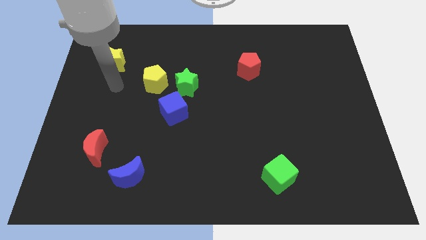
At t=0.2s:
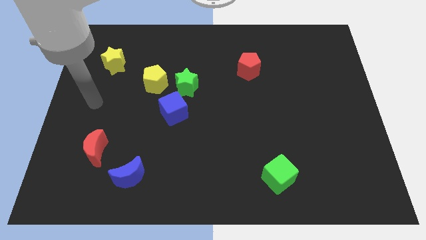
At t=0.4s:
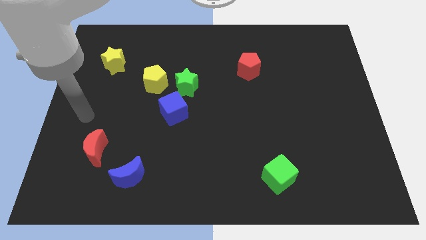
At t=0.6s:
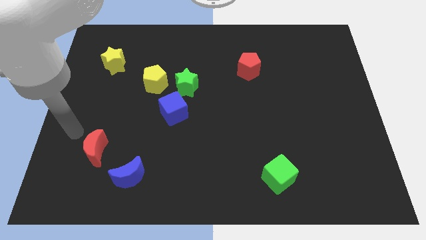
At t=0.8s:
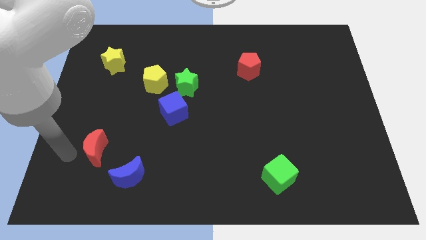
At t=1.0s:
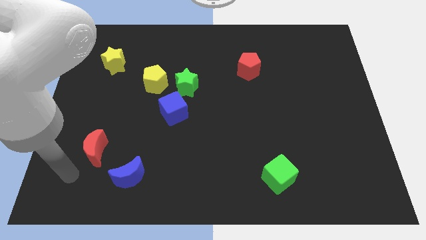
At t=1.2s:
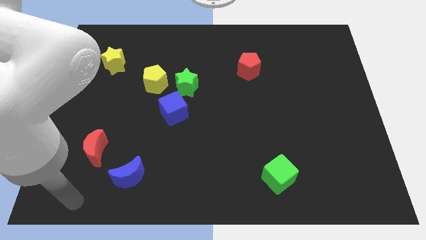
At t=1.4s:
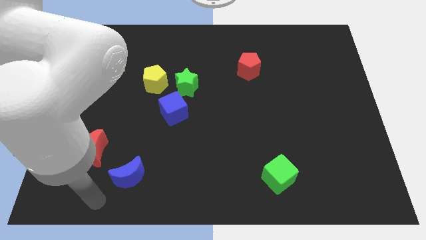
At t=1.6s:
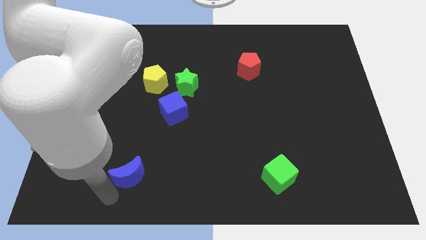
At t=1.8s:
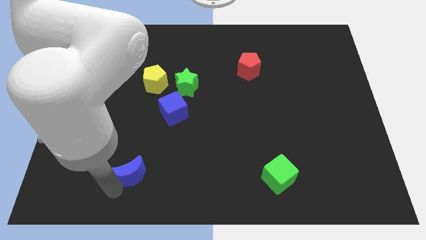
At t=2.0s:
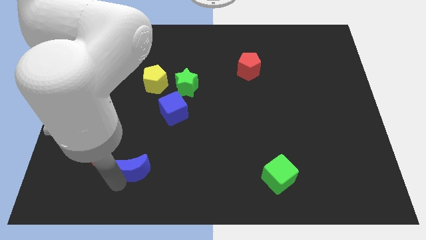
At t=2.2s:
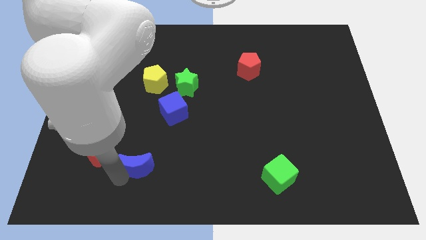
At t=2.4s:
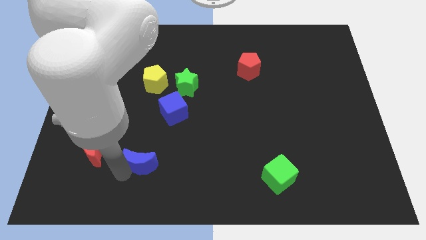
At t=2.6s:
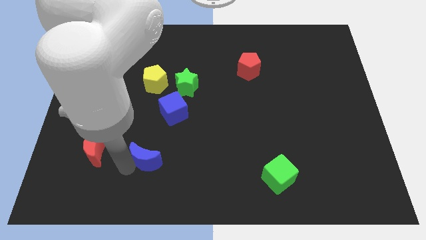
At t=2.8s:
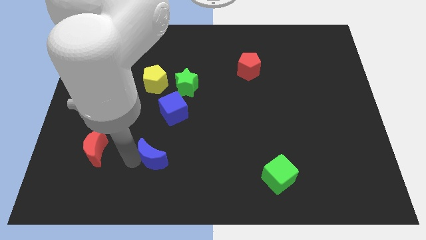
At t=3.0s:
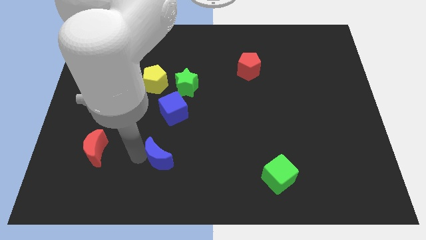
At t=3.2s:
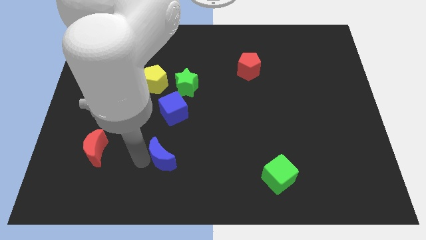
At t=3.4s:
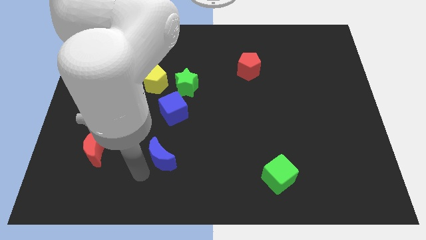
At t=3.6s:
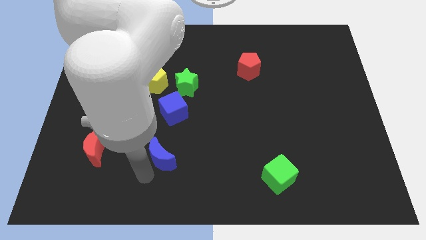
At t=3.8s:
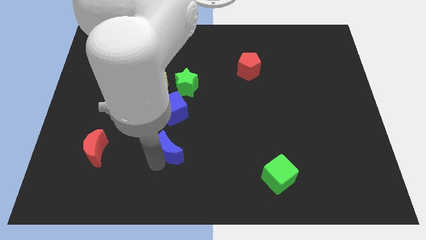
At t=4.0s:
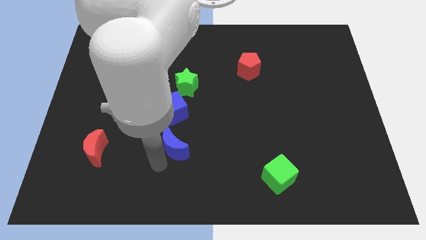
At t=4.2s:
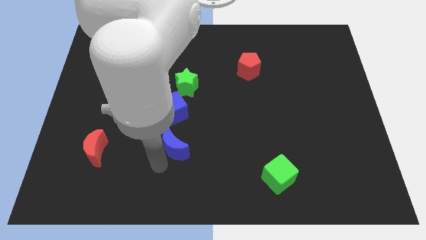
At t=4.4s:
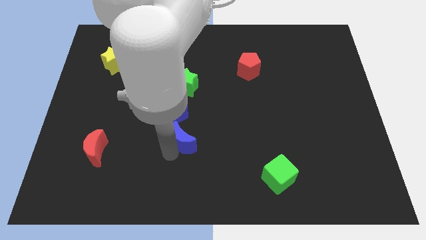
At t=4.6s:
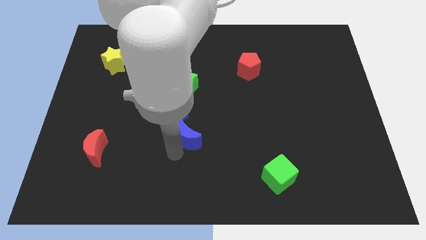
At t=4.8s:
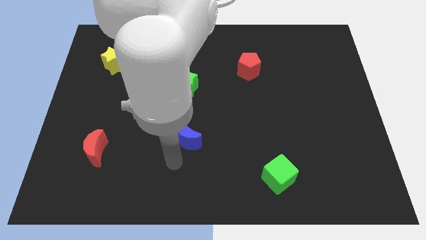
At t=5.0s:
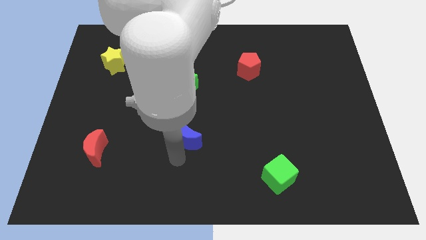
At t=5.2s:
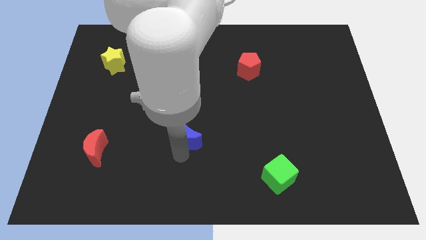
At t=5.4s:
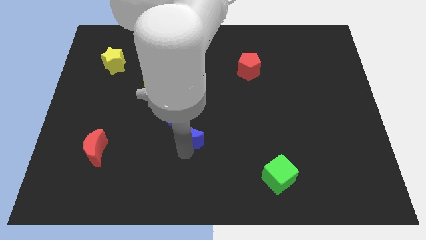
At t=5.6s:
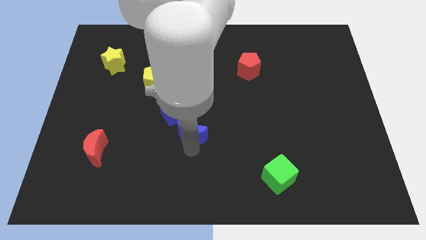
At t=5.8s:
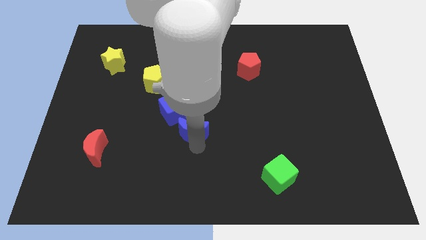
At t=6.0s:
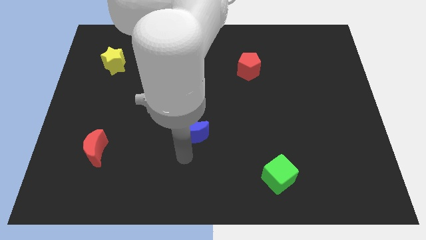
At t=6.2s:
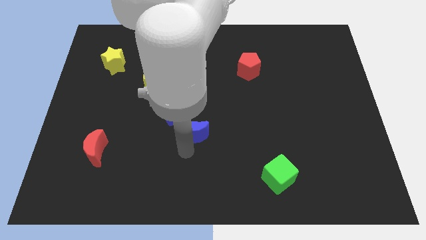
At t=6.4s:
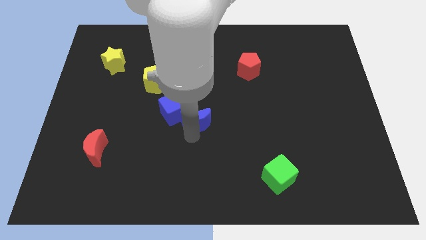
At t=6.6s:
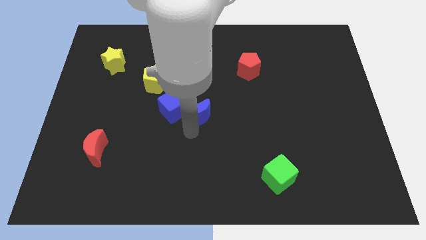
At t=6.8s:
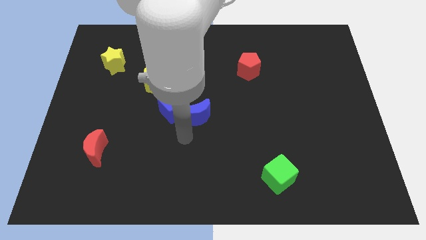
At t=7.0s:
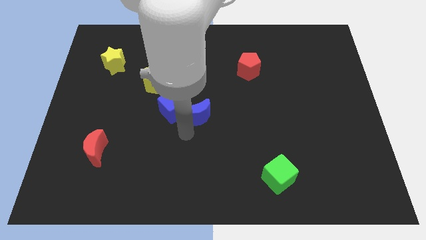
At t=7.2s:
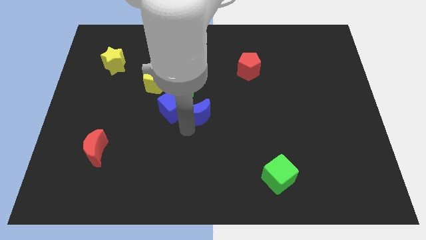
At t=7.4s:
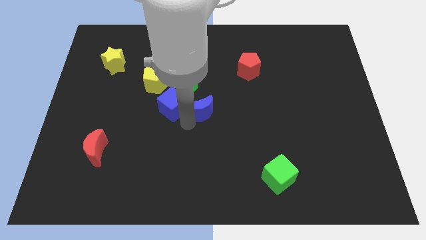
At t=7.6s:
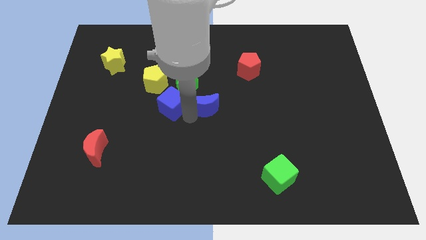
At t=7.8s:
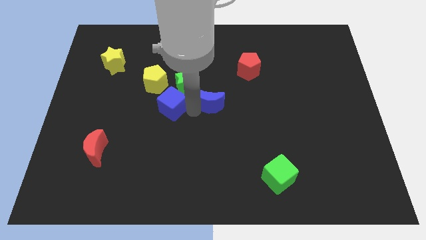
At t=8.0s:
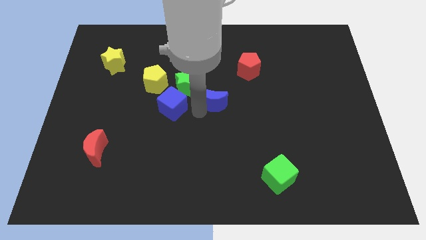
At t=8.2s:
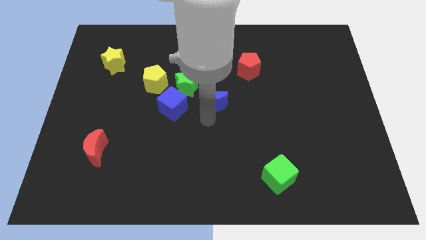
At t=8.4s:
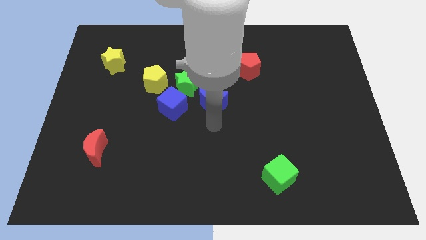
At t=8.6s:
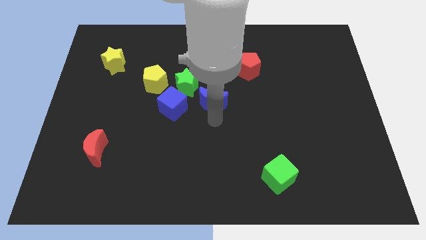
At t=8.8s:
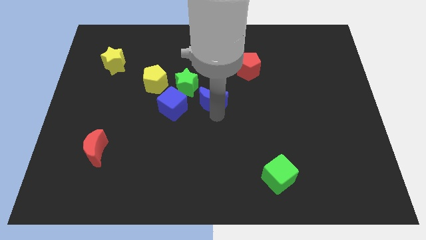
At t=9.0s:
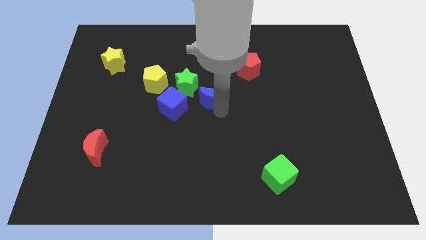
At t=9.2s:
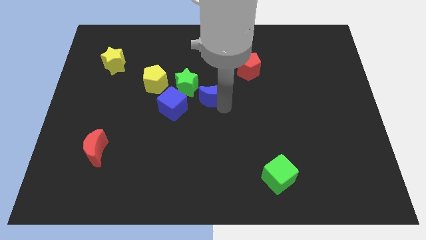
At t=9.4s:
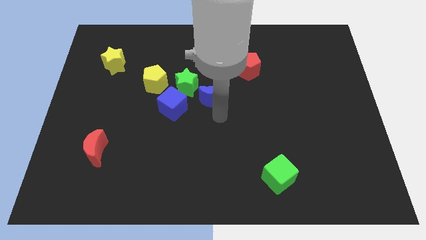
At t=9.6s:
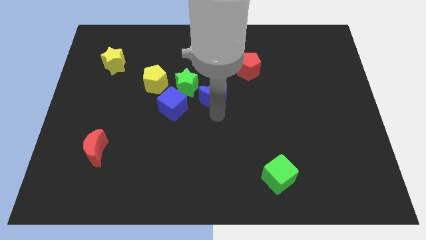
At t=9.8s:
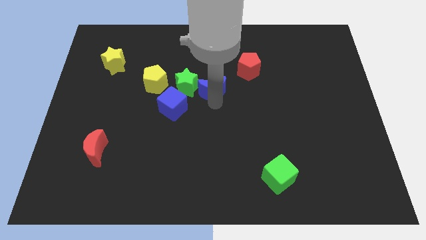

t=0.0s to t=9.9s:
slide the blue moon to the right of the yellow pentagon

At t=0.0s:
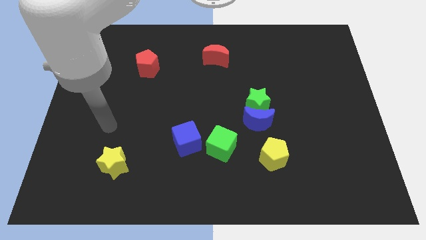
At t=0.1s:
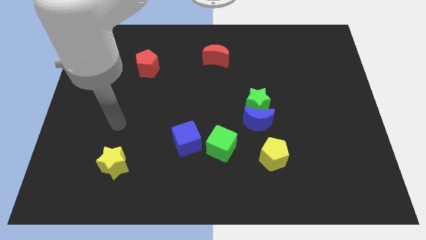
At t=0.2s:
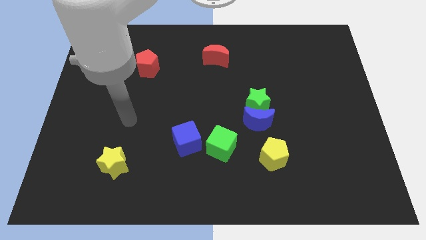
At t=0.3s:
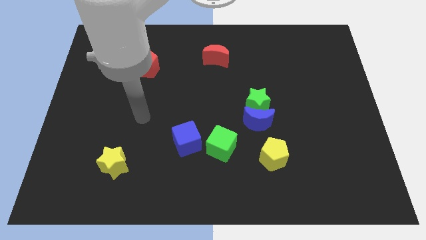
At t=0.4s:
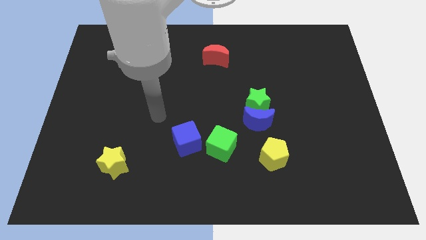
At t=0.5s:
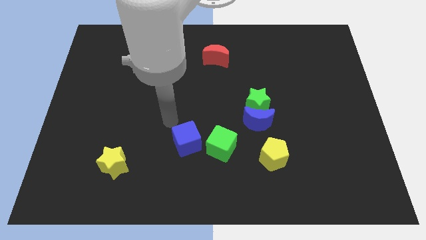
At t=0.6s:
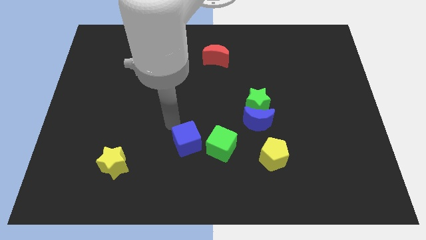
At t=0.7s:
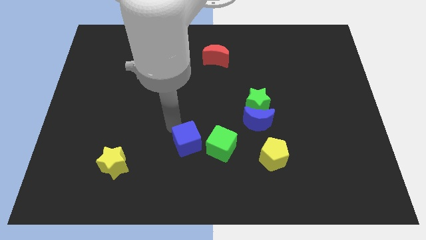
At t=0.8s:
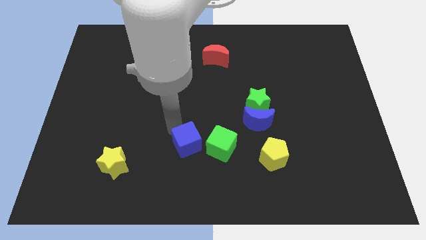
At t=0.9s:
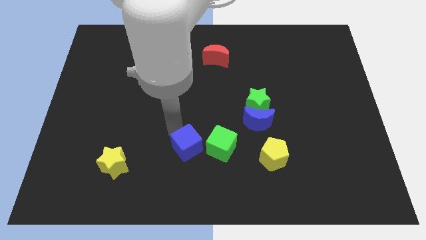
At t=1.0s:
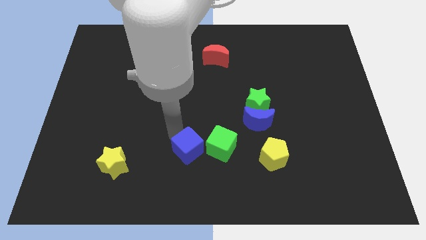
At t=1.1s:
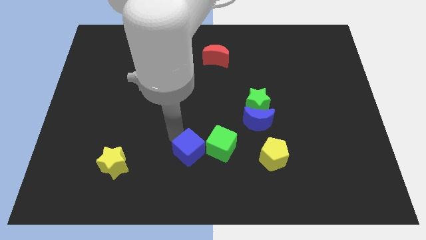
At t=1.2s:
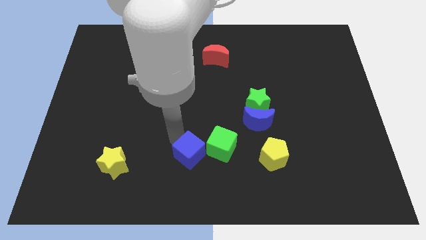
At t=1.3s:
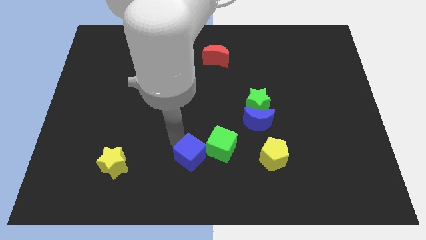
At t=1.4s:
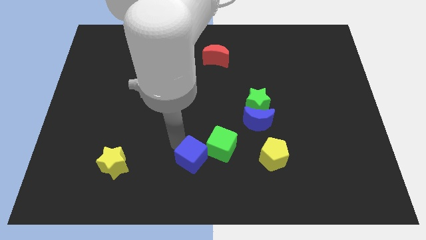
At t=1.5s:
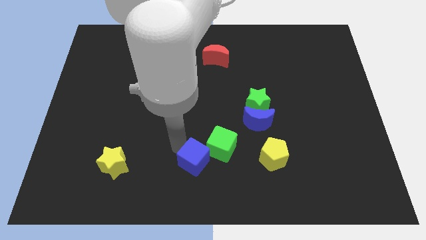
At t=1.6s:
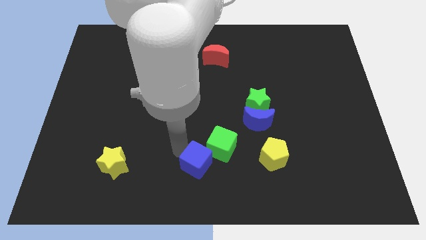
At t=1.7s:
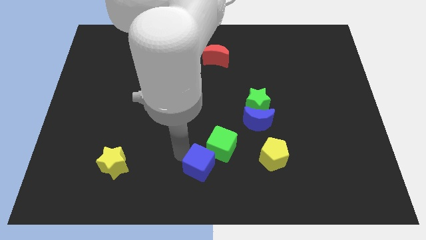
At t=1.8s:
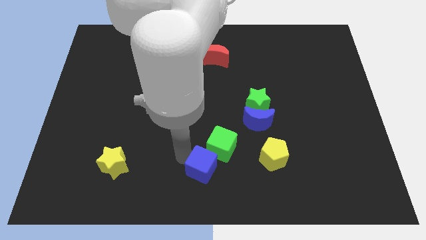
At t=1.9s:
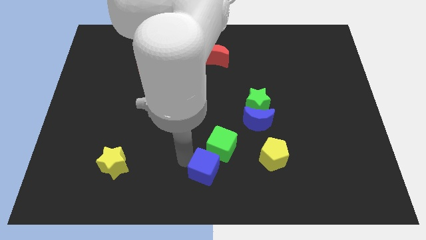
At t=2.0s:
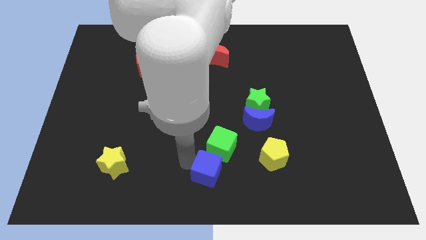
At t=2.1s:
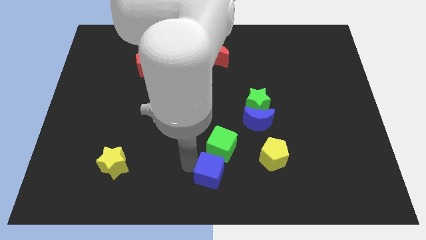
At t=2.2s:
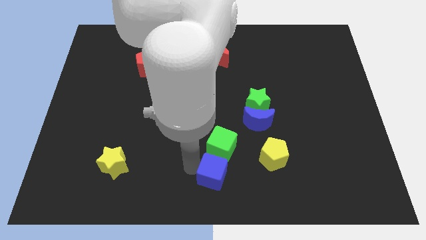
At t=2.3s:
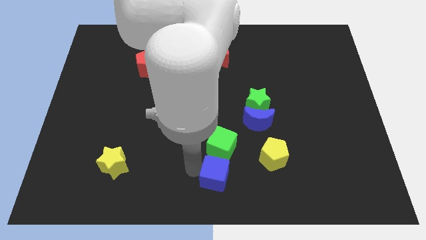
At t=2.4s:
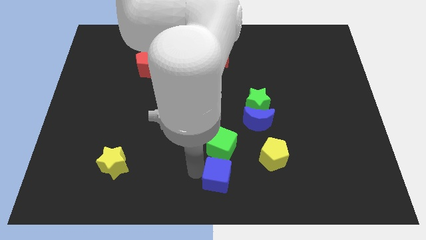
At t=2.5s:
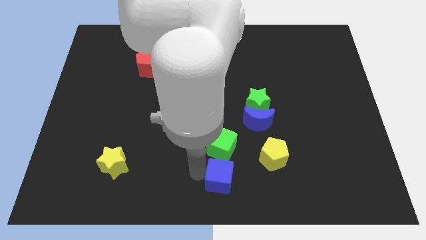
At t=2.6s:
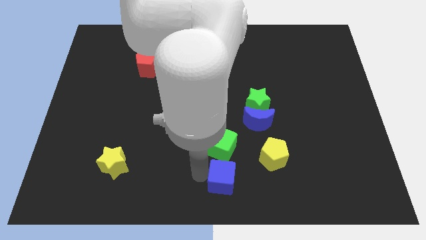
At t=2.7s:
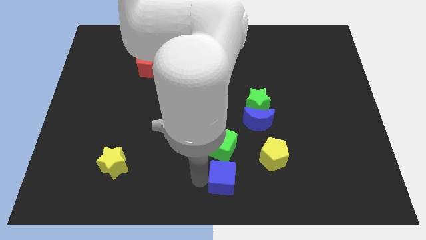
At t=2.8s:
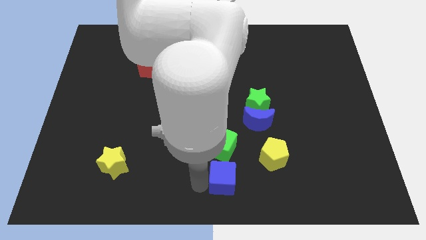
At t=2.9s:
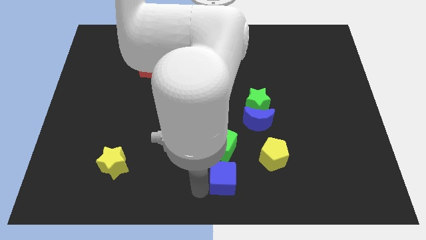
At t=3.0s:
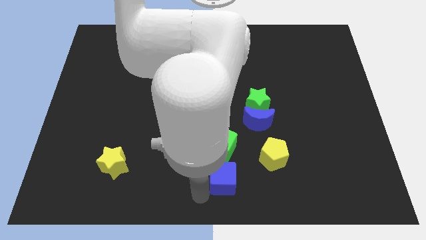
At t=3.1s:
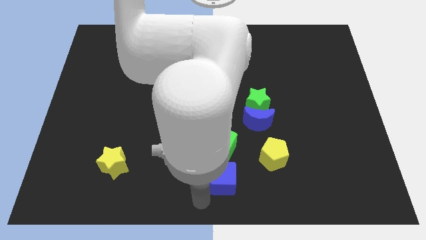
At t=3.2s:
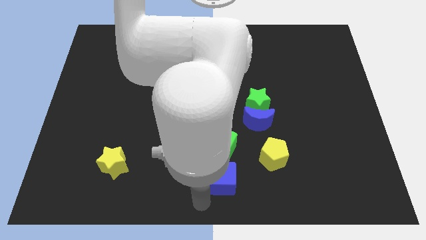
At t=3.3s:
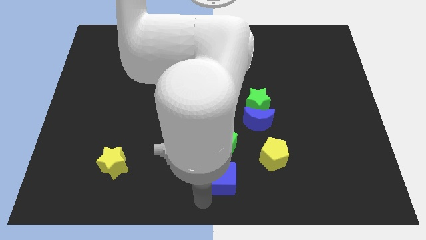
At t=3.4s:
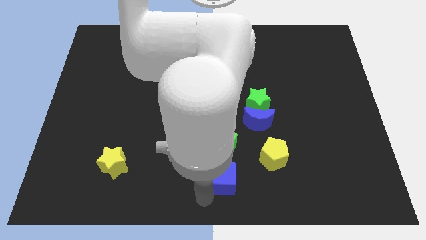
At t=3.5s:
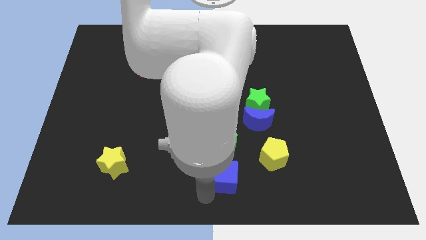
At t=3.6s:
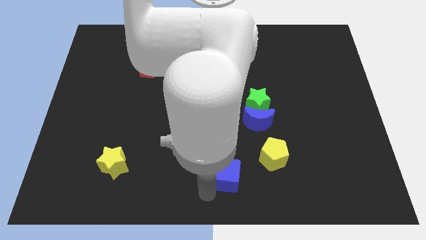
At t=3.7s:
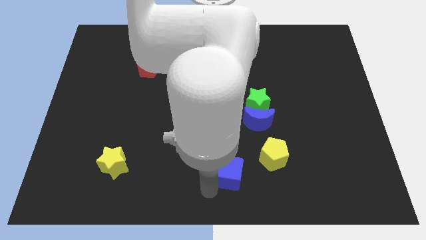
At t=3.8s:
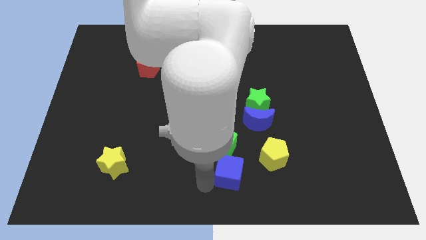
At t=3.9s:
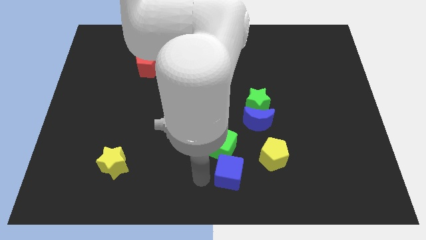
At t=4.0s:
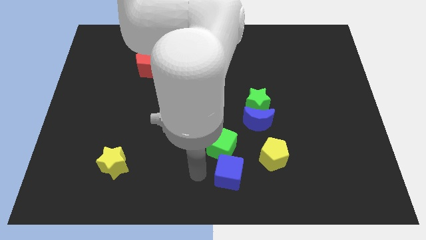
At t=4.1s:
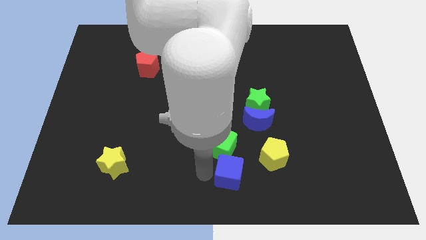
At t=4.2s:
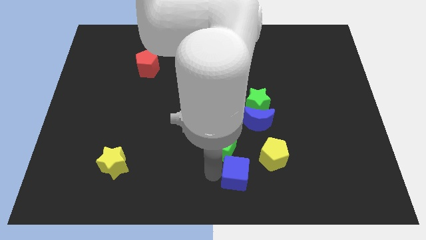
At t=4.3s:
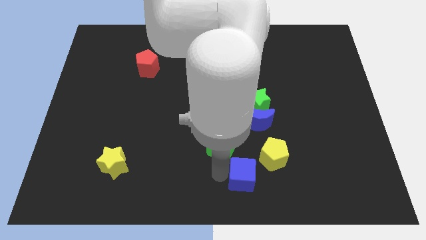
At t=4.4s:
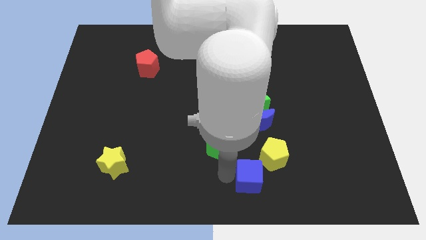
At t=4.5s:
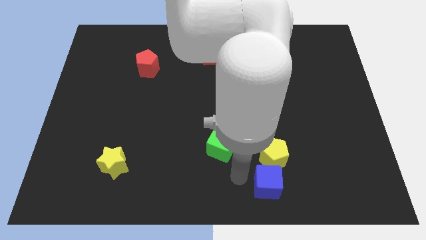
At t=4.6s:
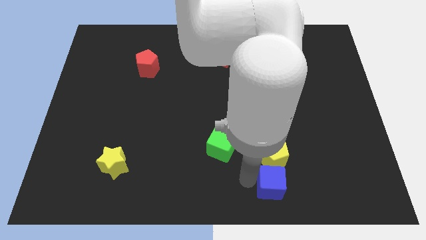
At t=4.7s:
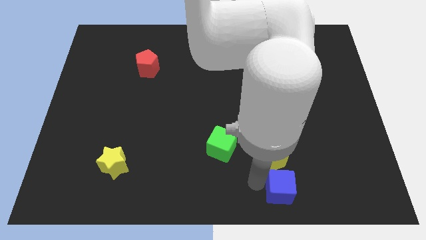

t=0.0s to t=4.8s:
push the blue cube to the bottom right side of the yellow pentagon
